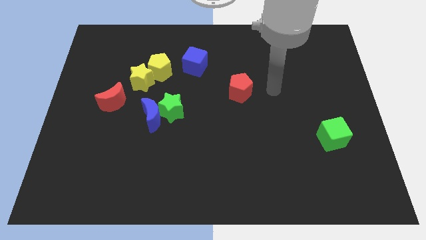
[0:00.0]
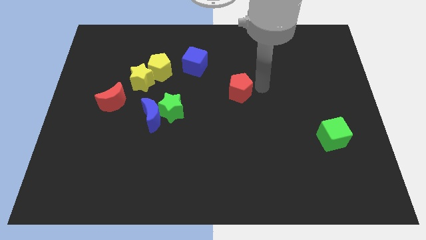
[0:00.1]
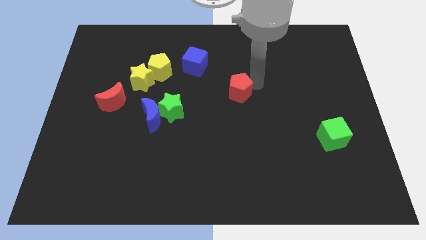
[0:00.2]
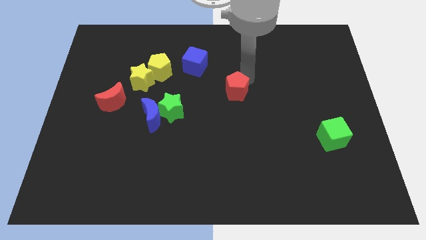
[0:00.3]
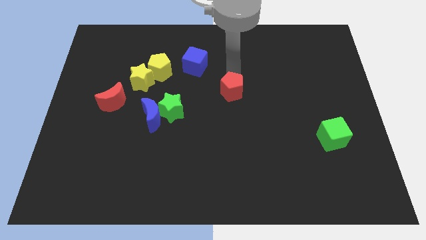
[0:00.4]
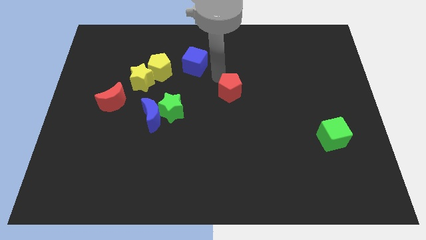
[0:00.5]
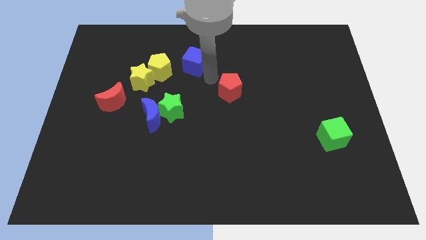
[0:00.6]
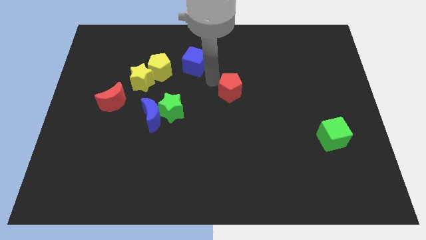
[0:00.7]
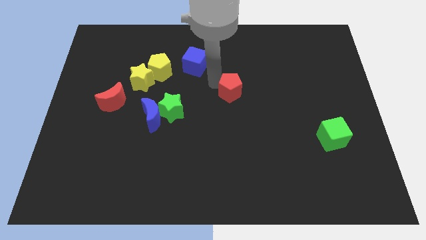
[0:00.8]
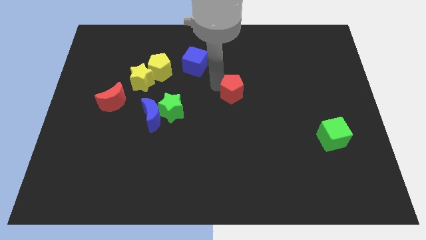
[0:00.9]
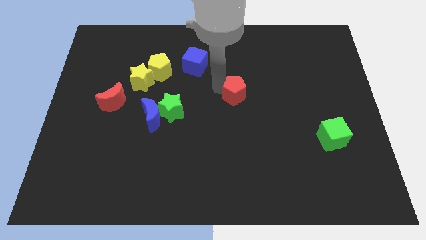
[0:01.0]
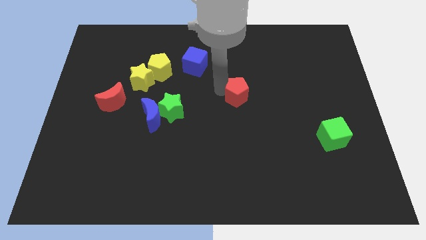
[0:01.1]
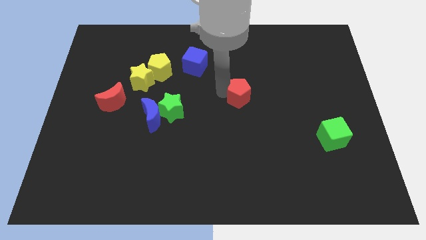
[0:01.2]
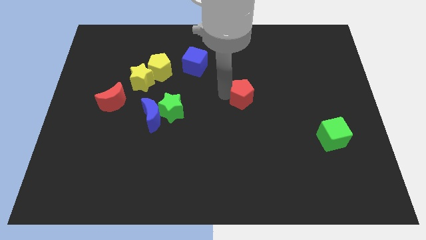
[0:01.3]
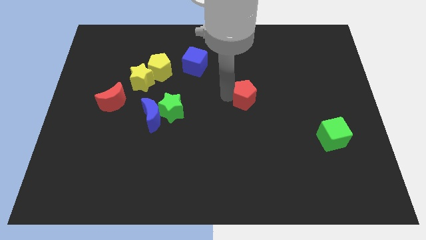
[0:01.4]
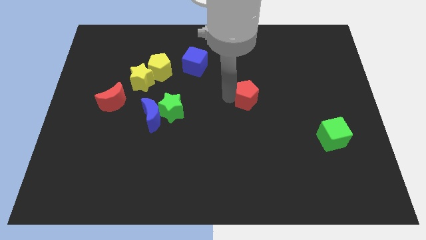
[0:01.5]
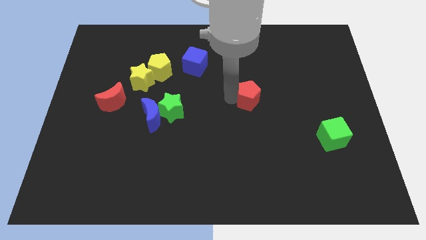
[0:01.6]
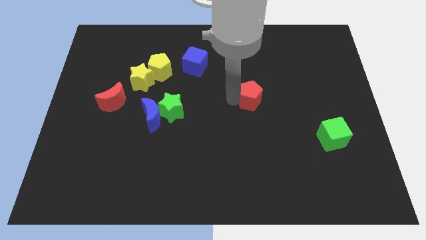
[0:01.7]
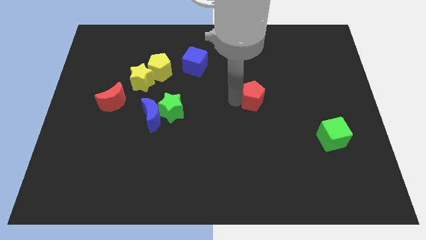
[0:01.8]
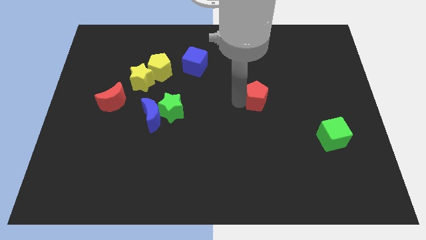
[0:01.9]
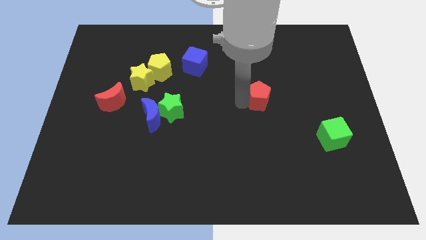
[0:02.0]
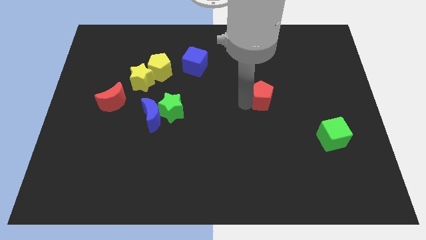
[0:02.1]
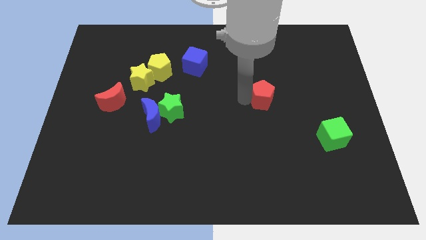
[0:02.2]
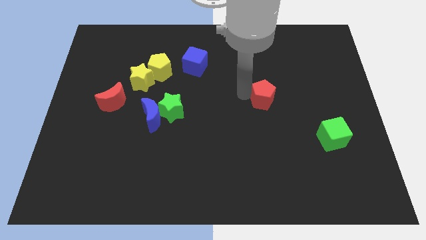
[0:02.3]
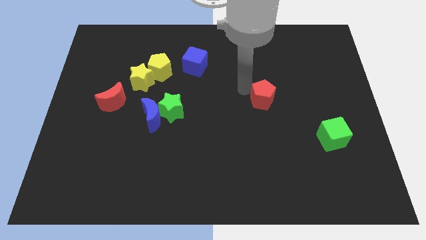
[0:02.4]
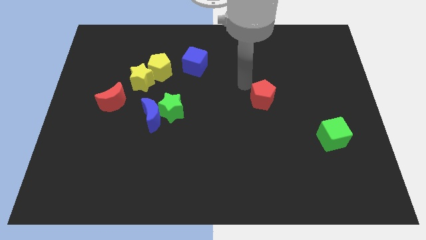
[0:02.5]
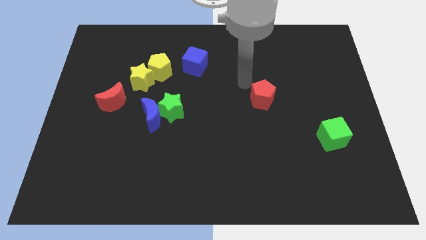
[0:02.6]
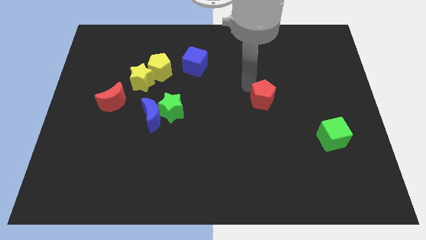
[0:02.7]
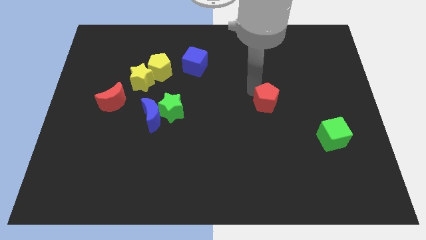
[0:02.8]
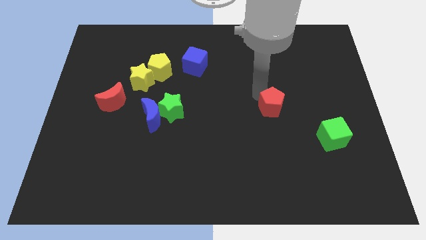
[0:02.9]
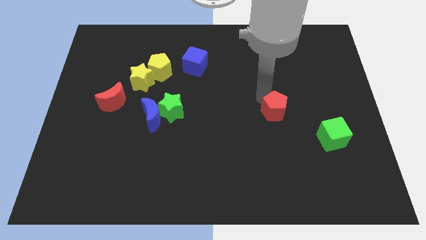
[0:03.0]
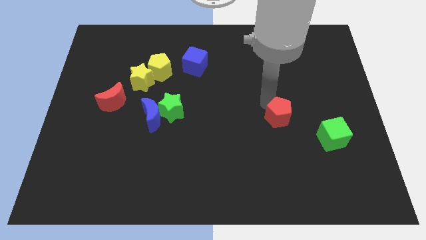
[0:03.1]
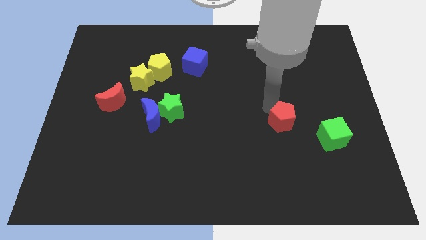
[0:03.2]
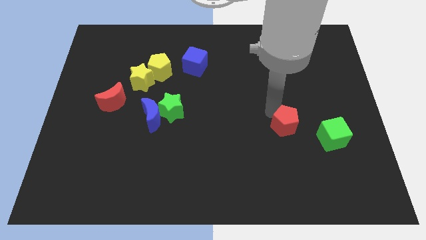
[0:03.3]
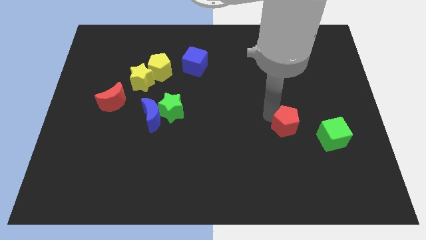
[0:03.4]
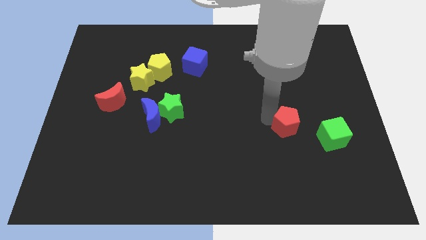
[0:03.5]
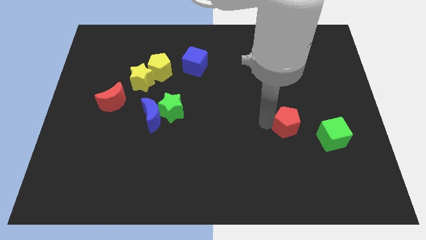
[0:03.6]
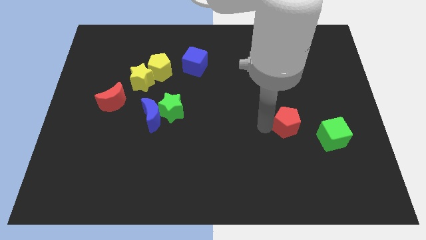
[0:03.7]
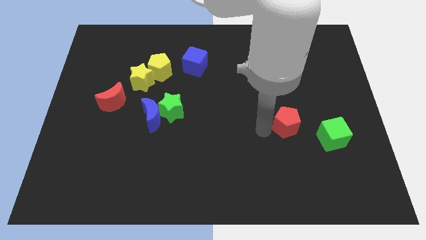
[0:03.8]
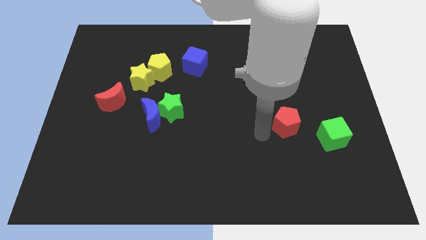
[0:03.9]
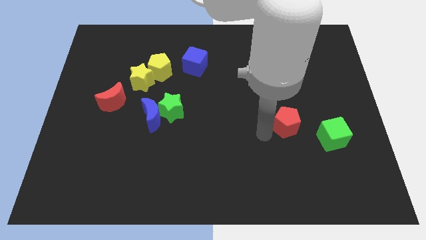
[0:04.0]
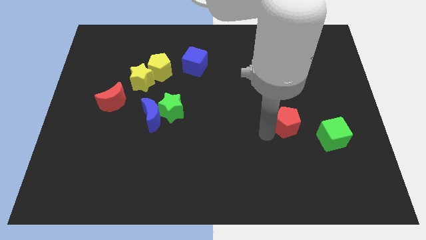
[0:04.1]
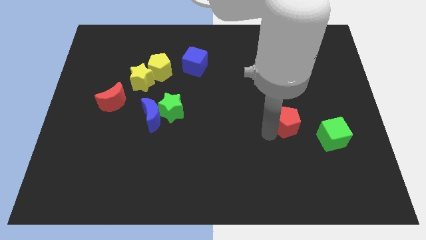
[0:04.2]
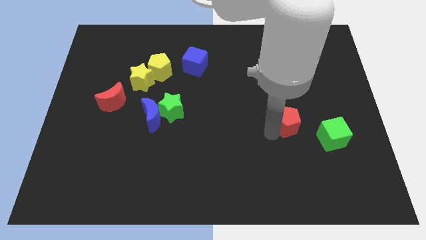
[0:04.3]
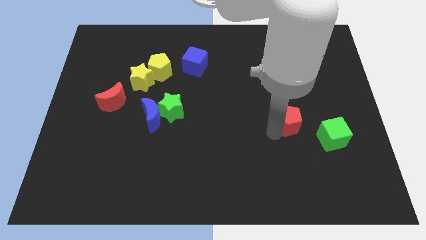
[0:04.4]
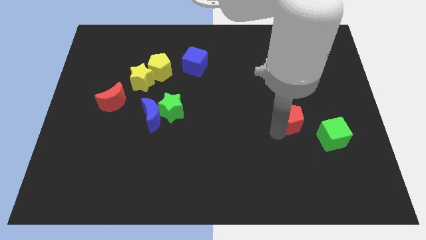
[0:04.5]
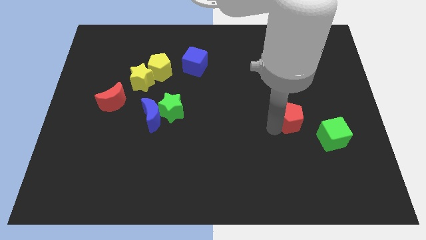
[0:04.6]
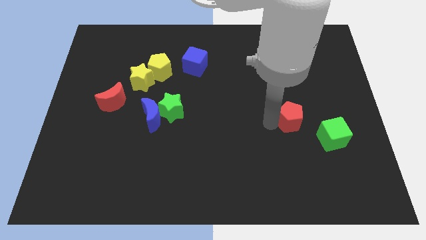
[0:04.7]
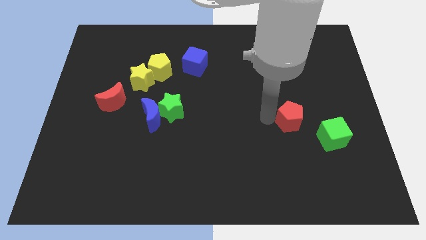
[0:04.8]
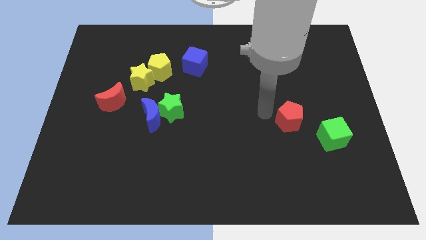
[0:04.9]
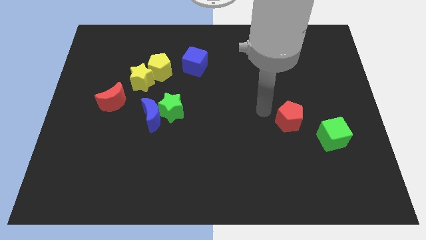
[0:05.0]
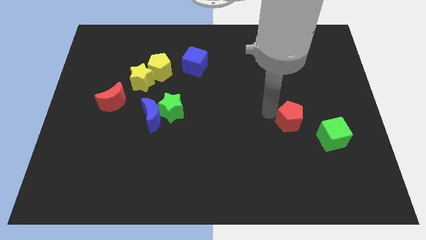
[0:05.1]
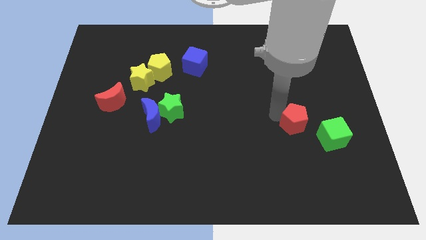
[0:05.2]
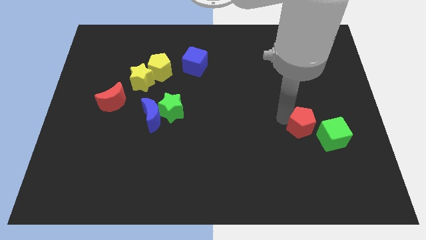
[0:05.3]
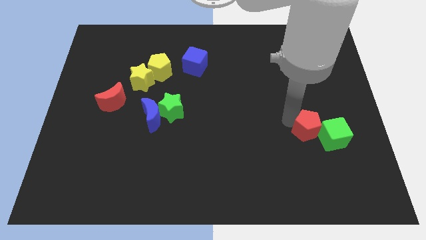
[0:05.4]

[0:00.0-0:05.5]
put the red pentagon towards the green cube

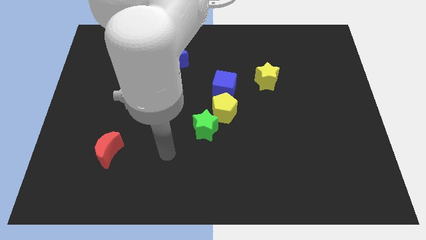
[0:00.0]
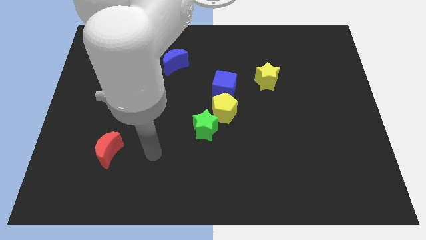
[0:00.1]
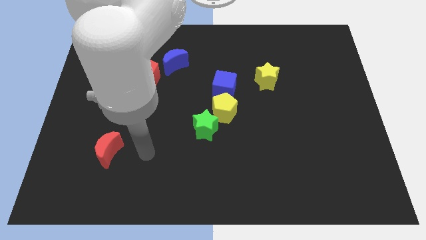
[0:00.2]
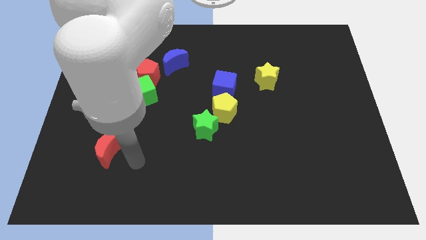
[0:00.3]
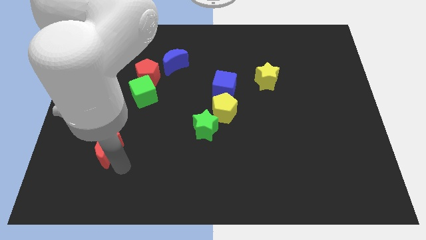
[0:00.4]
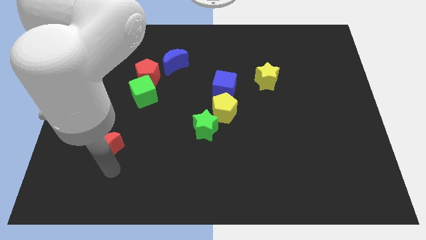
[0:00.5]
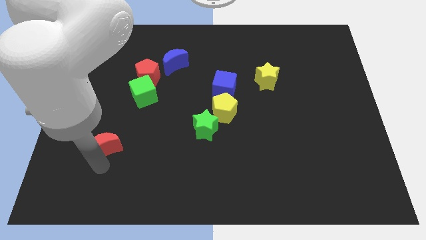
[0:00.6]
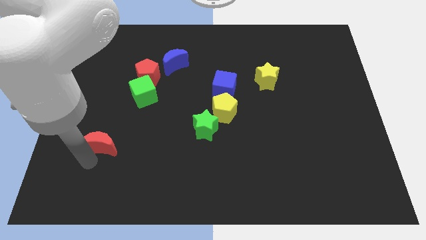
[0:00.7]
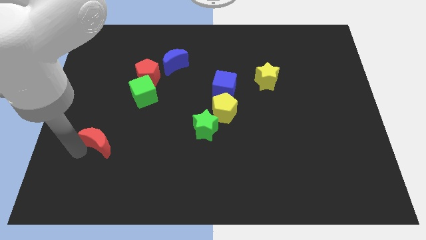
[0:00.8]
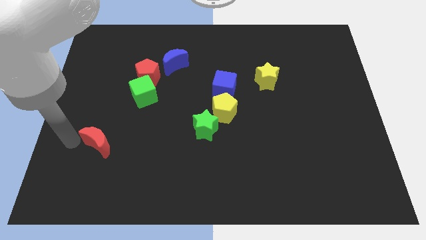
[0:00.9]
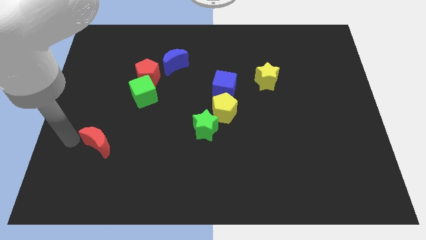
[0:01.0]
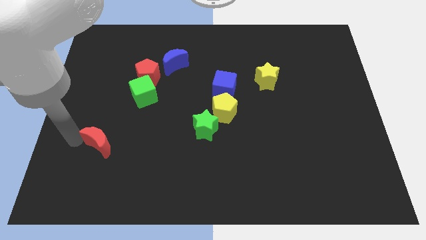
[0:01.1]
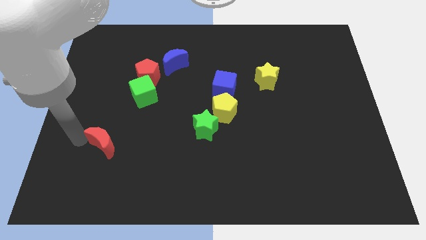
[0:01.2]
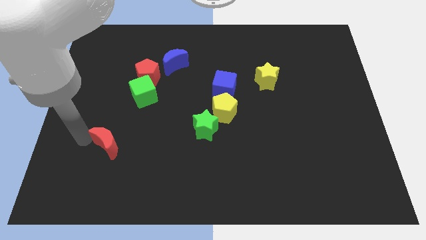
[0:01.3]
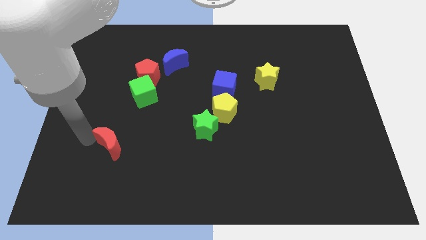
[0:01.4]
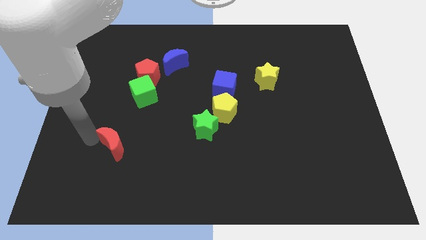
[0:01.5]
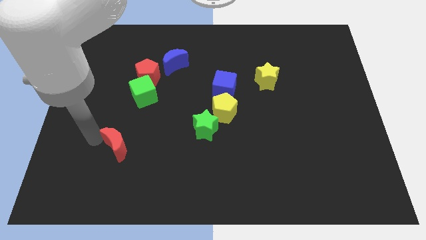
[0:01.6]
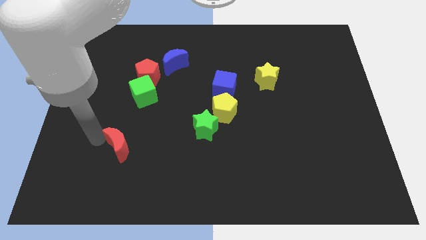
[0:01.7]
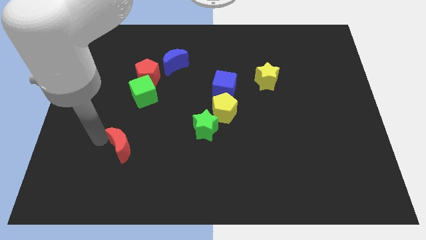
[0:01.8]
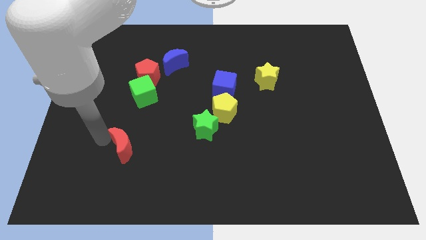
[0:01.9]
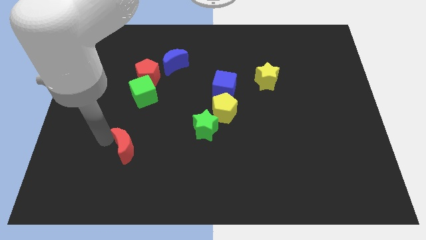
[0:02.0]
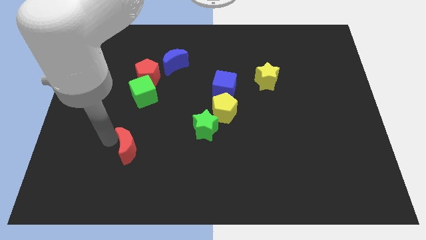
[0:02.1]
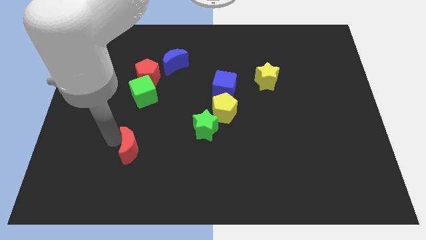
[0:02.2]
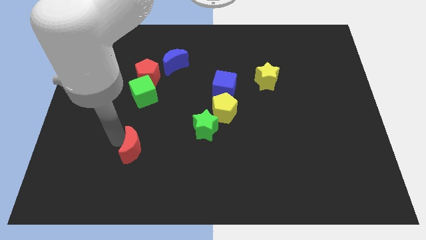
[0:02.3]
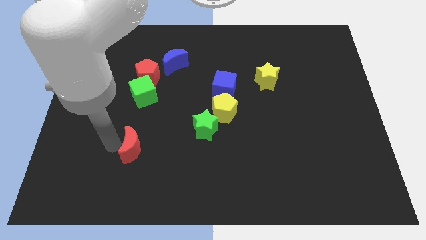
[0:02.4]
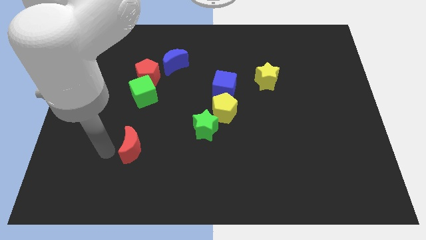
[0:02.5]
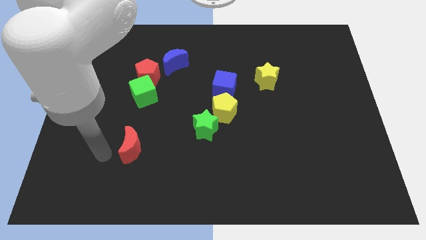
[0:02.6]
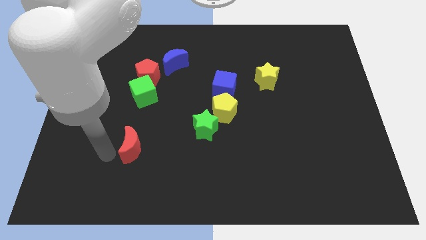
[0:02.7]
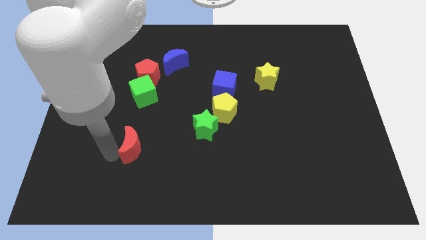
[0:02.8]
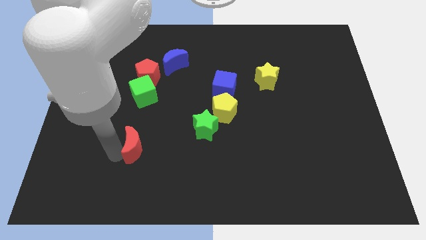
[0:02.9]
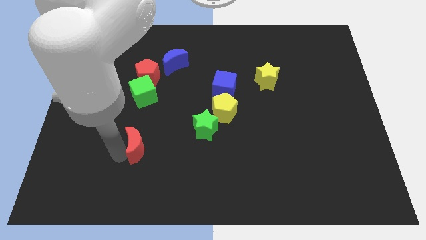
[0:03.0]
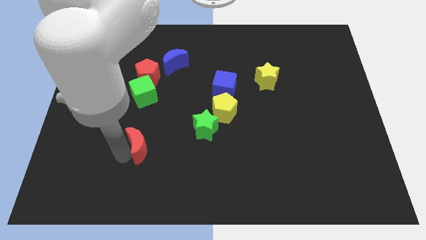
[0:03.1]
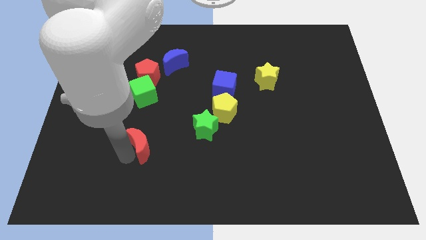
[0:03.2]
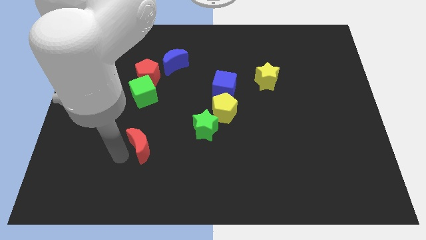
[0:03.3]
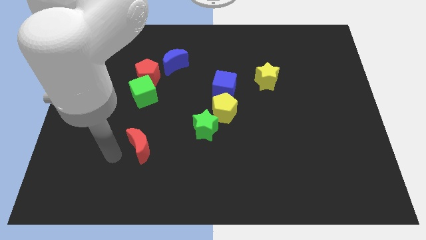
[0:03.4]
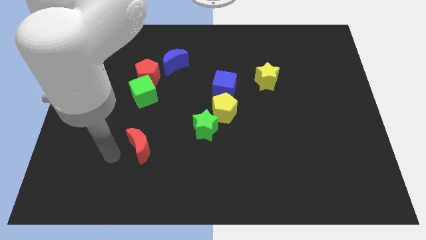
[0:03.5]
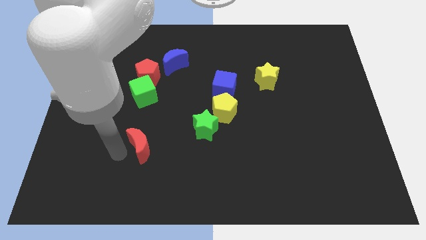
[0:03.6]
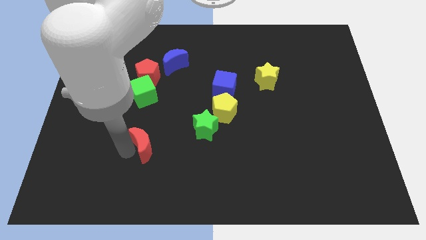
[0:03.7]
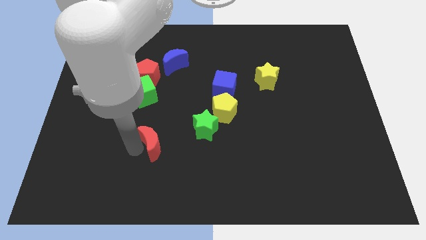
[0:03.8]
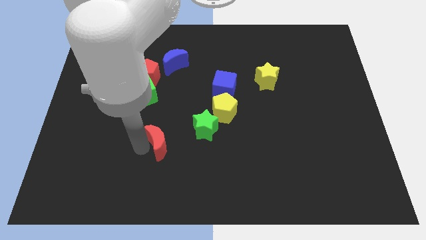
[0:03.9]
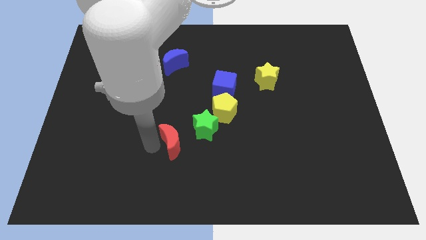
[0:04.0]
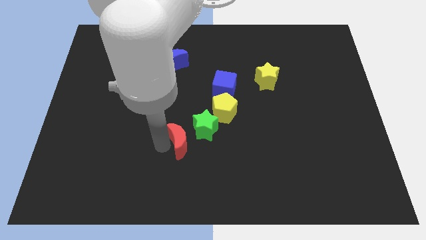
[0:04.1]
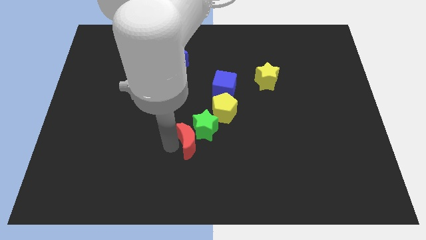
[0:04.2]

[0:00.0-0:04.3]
push the red moon to the green star
